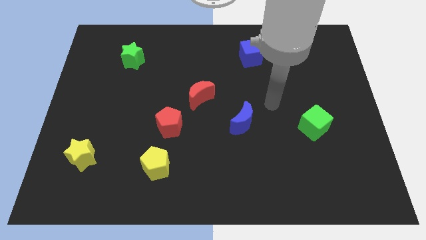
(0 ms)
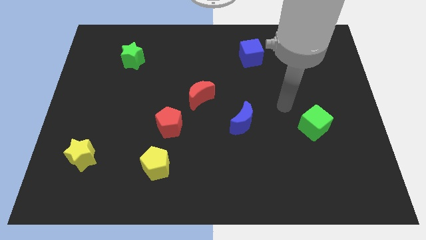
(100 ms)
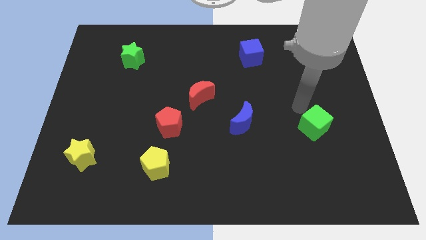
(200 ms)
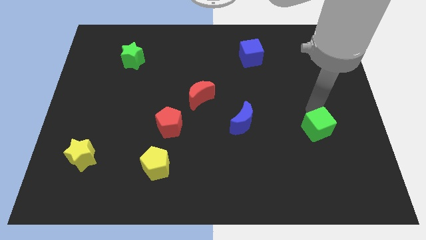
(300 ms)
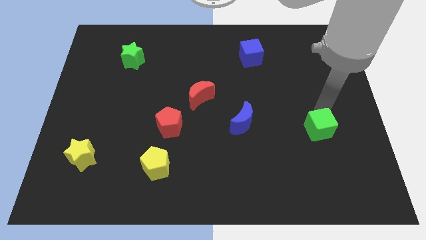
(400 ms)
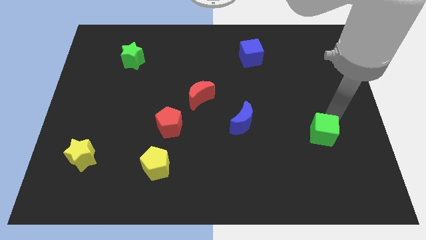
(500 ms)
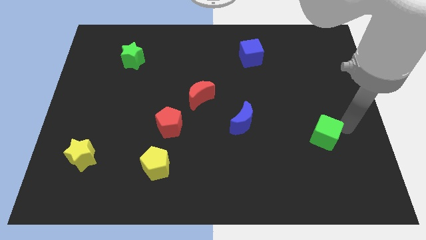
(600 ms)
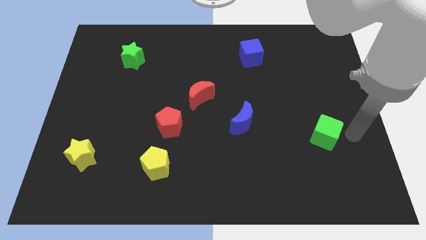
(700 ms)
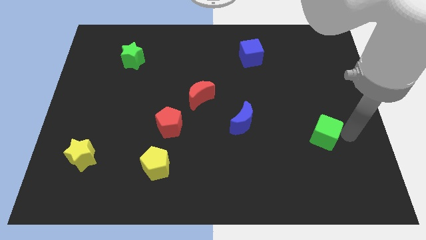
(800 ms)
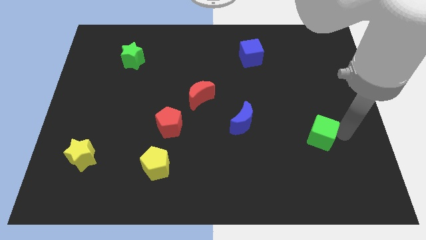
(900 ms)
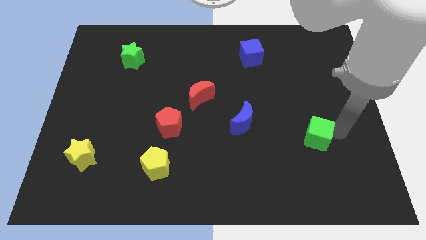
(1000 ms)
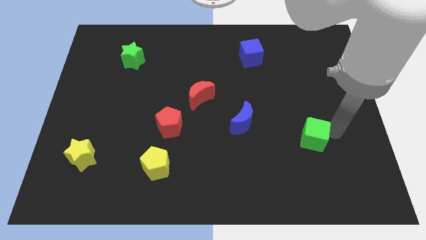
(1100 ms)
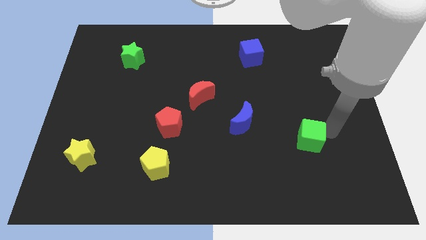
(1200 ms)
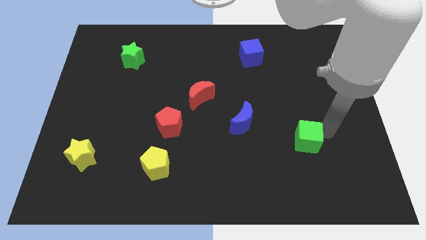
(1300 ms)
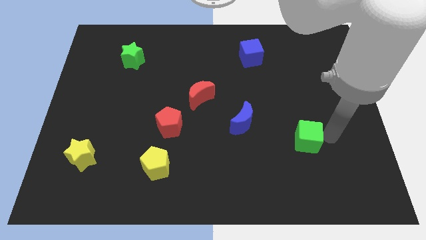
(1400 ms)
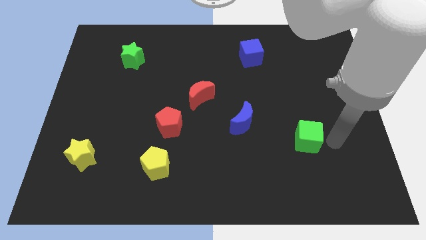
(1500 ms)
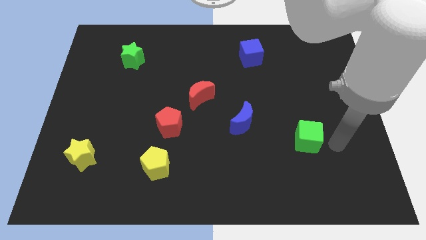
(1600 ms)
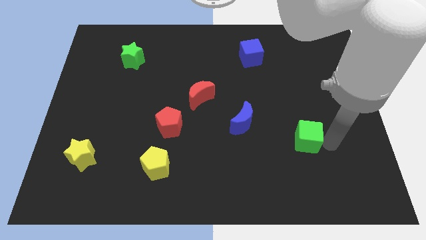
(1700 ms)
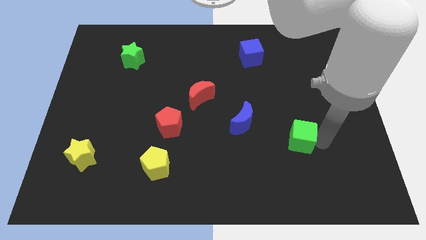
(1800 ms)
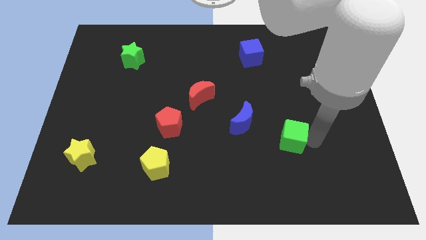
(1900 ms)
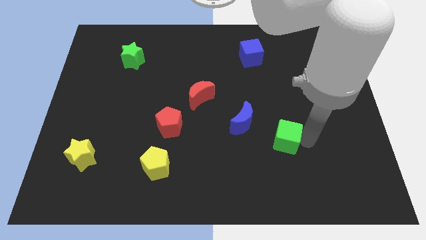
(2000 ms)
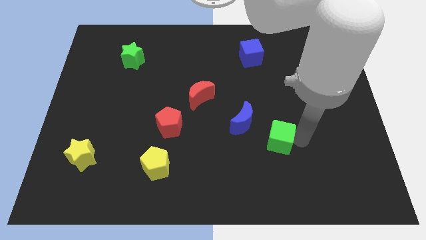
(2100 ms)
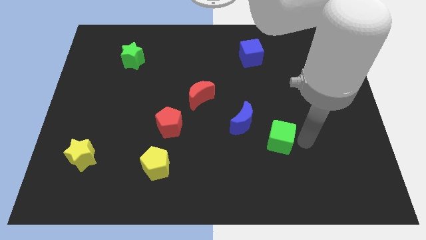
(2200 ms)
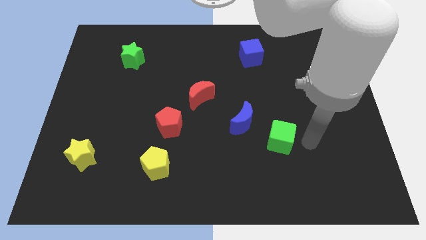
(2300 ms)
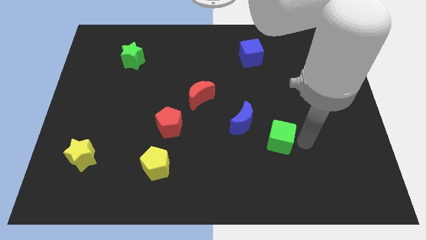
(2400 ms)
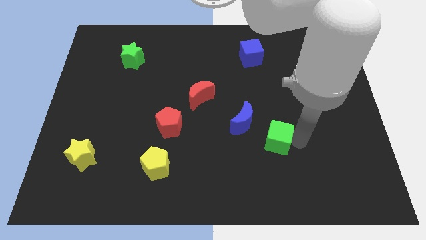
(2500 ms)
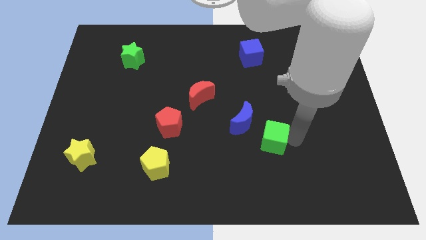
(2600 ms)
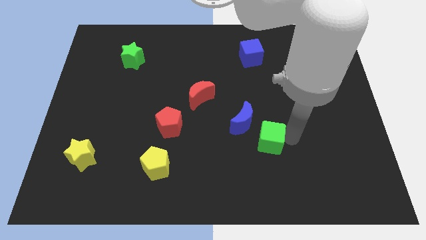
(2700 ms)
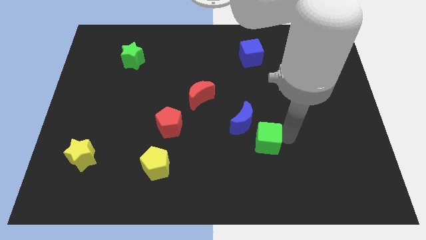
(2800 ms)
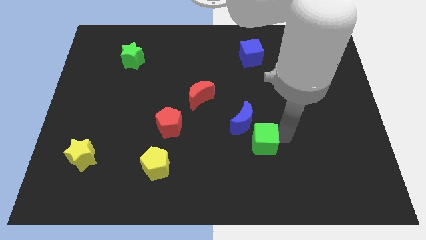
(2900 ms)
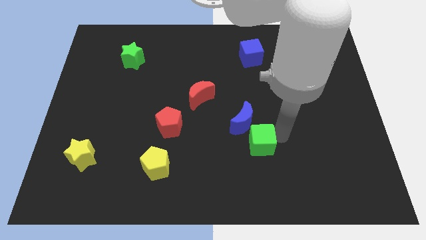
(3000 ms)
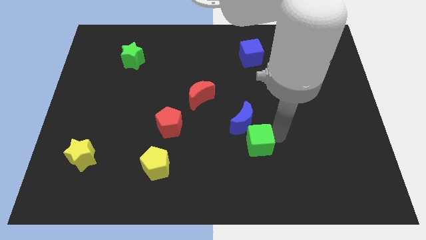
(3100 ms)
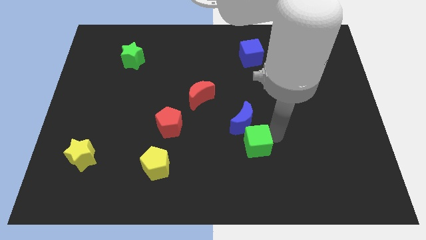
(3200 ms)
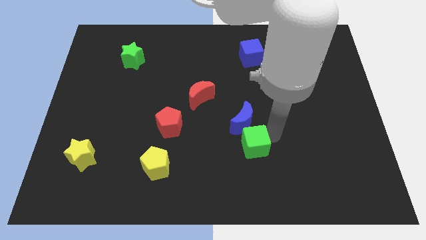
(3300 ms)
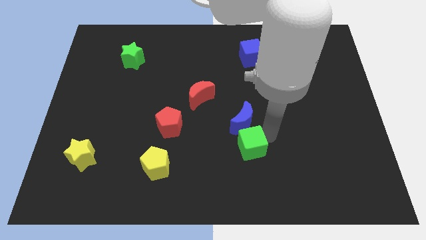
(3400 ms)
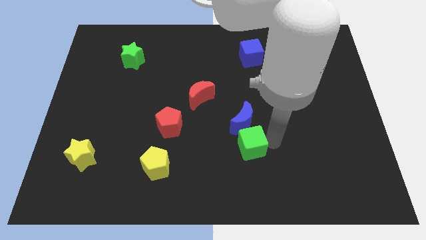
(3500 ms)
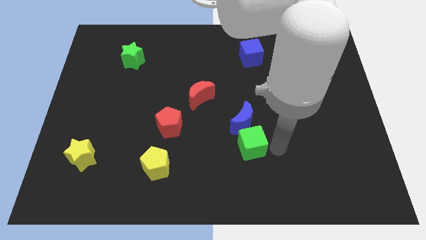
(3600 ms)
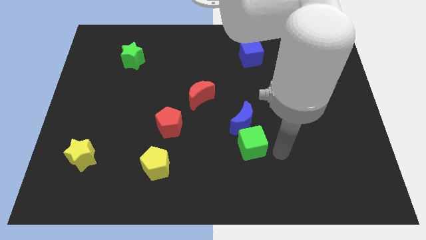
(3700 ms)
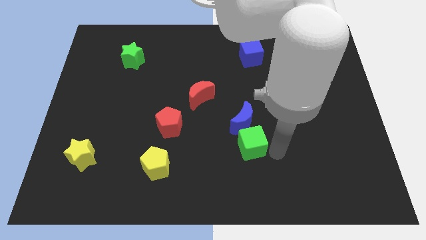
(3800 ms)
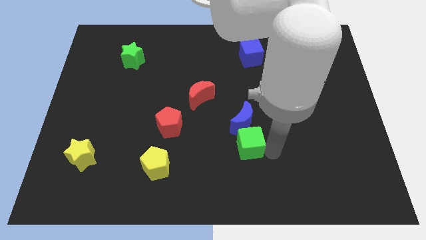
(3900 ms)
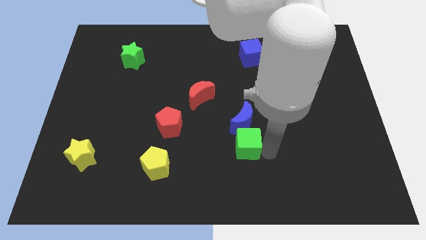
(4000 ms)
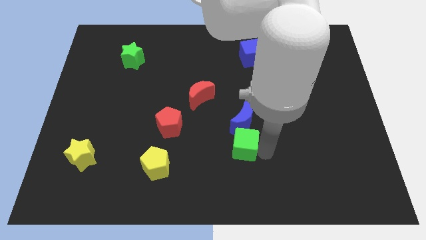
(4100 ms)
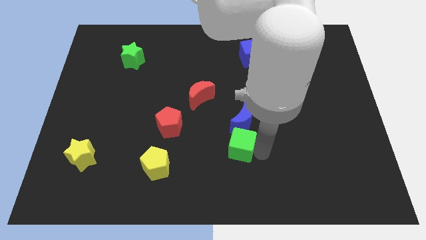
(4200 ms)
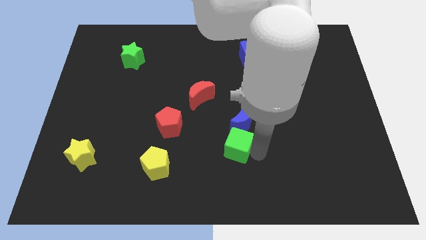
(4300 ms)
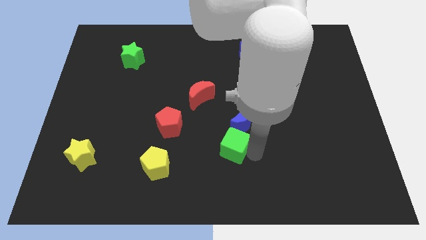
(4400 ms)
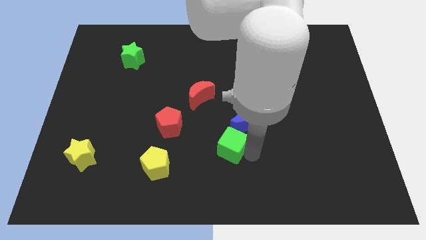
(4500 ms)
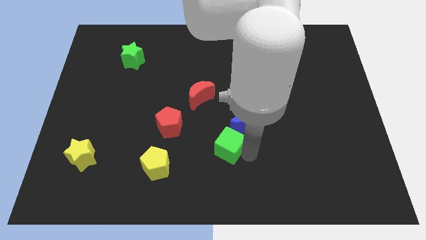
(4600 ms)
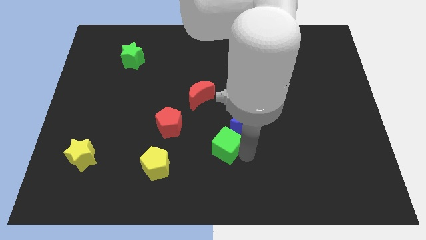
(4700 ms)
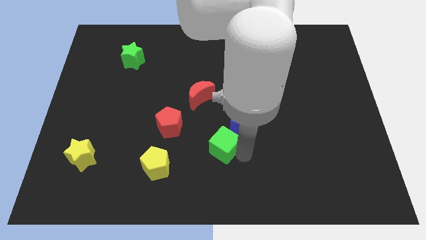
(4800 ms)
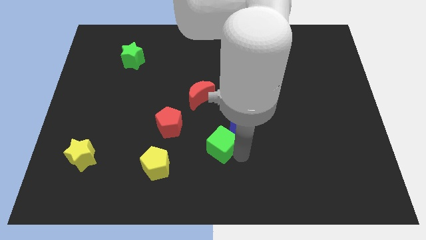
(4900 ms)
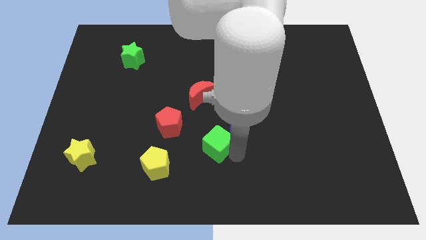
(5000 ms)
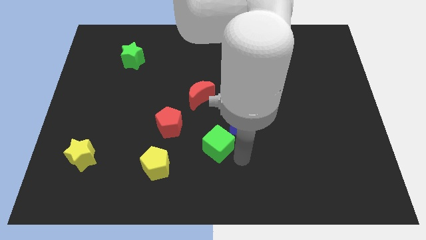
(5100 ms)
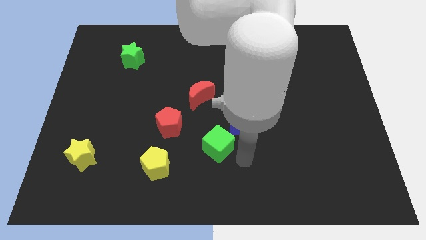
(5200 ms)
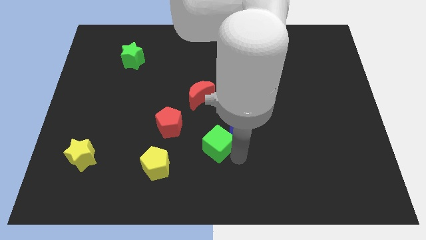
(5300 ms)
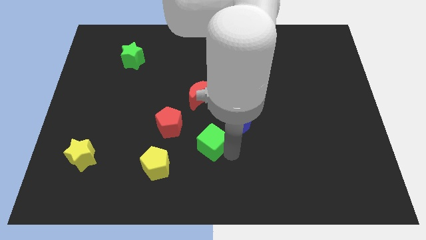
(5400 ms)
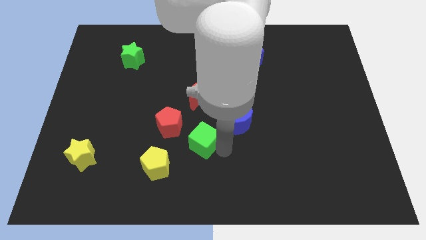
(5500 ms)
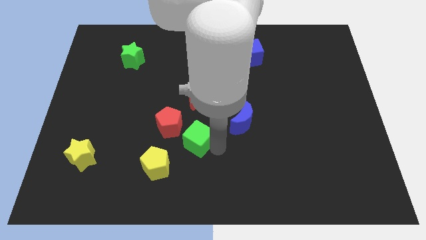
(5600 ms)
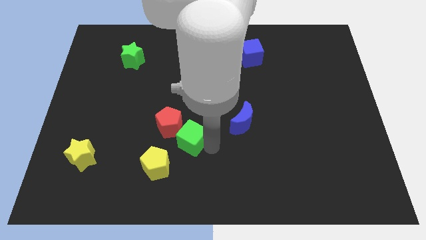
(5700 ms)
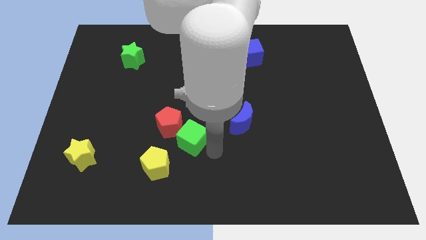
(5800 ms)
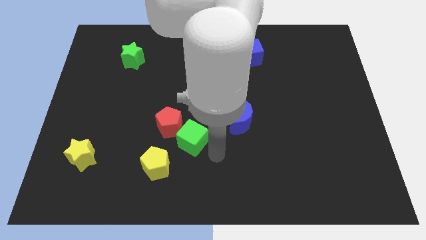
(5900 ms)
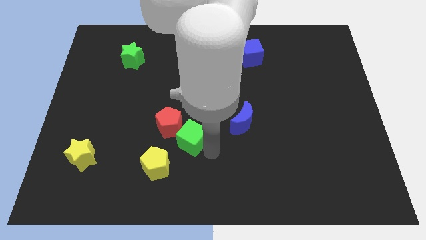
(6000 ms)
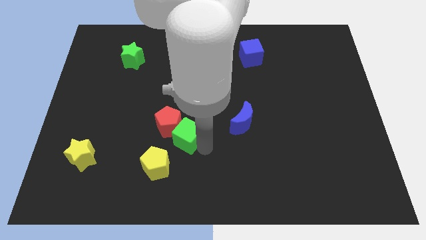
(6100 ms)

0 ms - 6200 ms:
push the green cube towards the red pentagon
